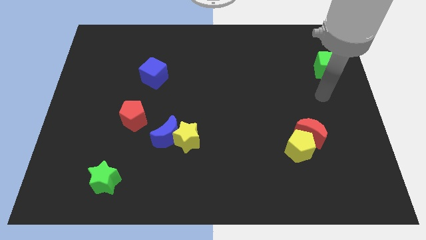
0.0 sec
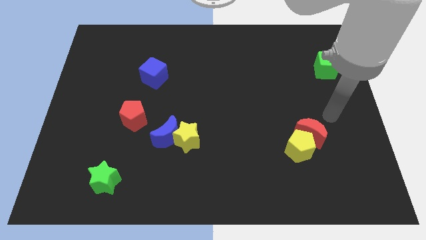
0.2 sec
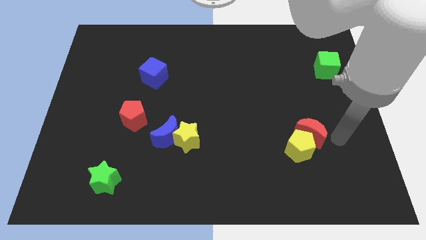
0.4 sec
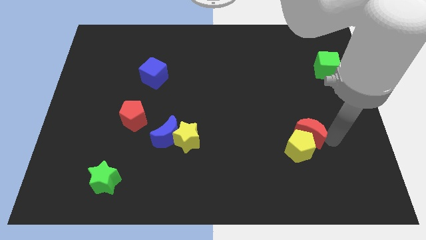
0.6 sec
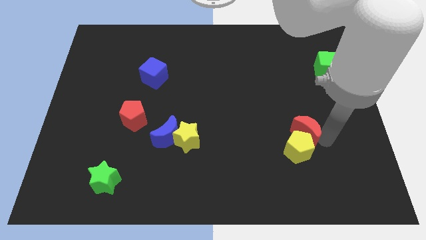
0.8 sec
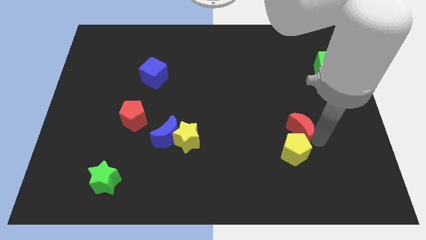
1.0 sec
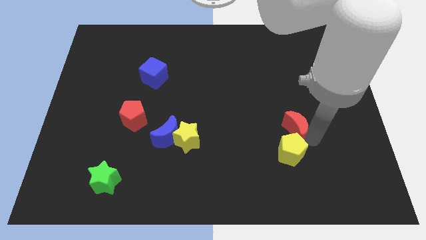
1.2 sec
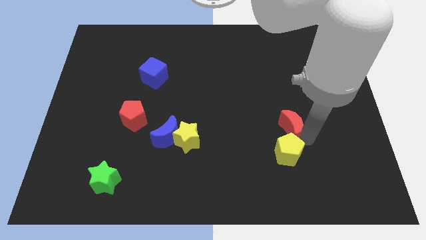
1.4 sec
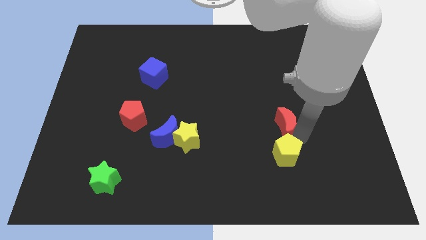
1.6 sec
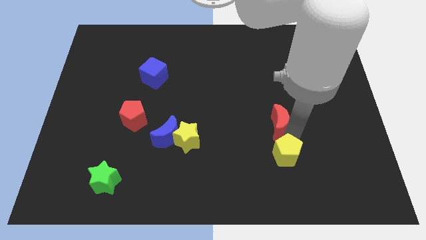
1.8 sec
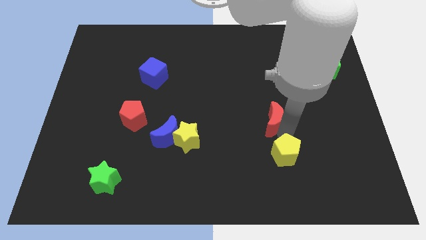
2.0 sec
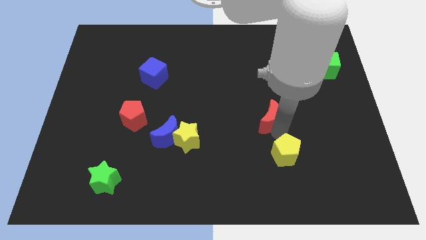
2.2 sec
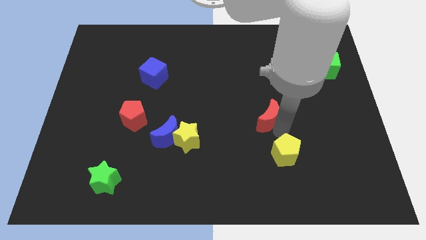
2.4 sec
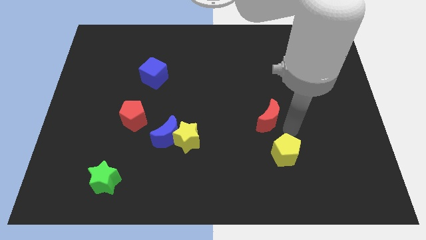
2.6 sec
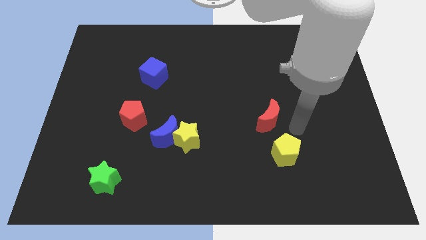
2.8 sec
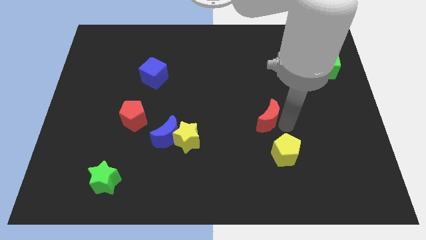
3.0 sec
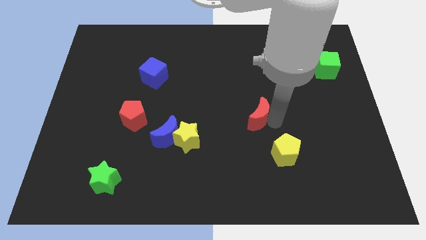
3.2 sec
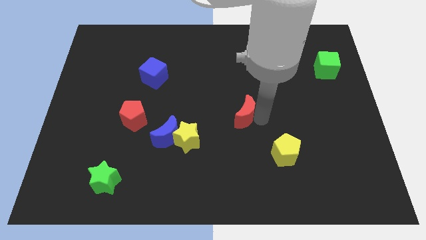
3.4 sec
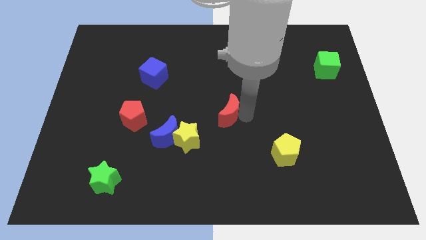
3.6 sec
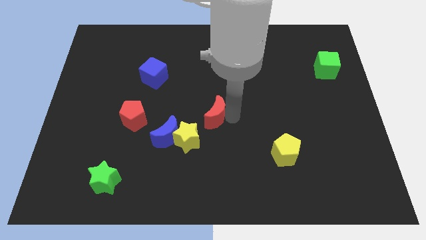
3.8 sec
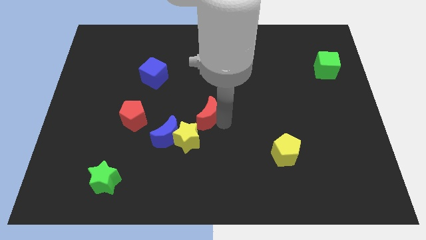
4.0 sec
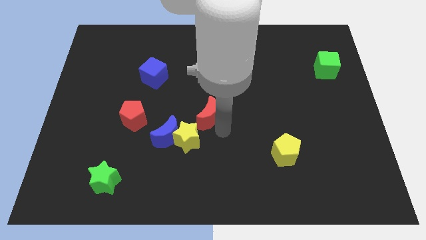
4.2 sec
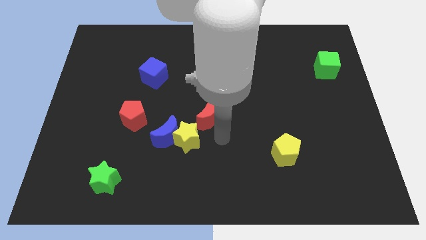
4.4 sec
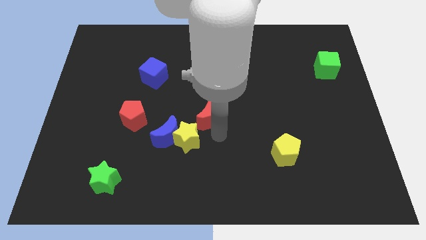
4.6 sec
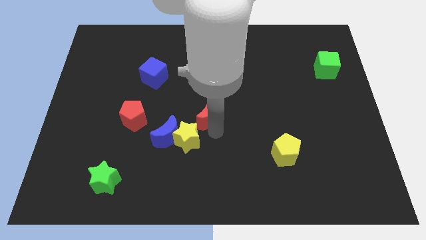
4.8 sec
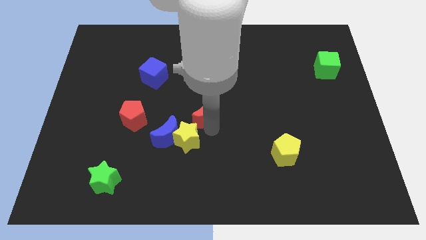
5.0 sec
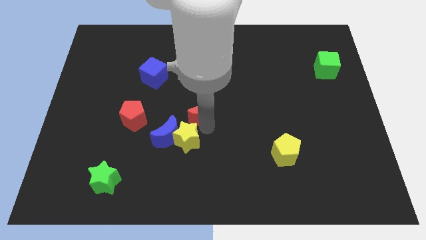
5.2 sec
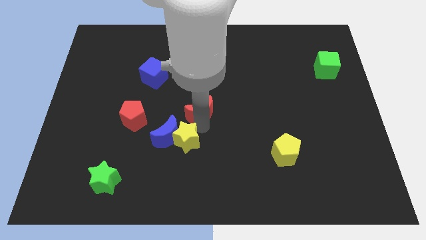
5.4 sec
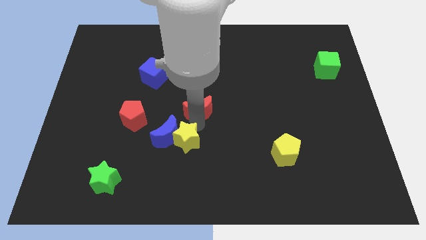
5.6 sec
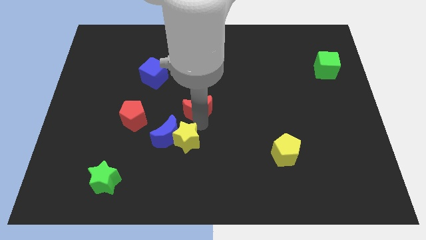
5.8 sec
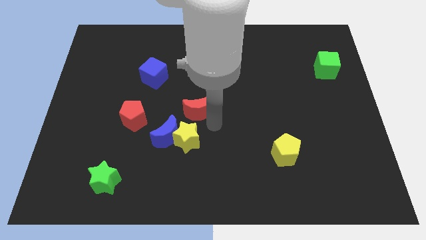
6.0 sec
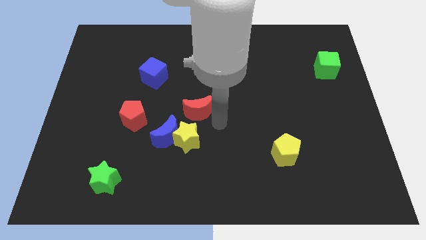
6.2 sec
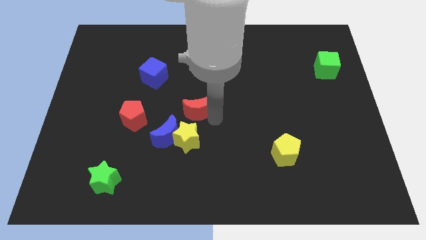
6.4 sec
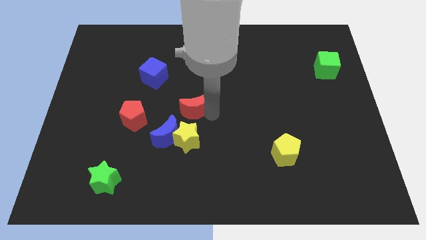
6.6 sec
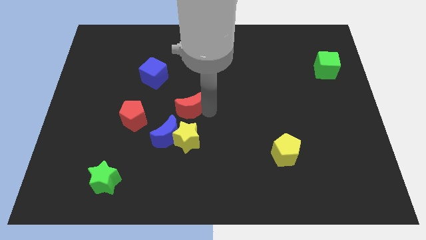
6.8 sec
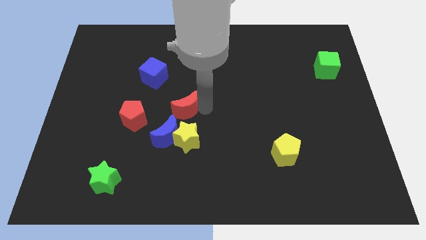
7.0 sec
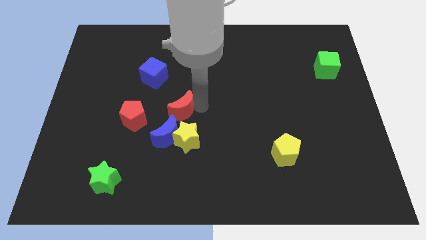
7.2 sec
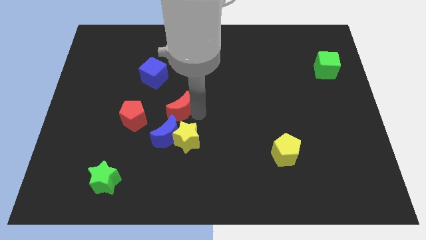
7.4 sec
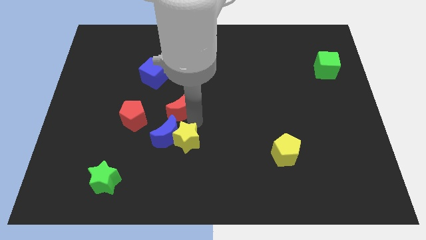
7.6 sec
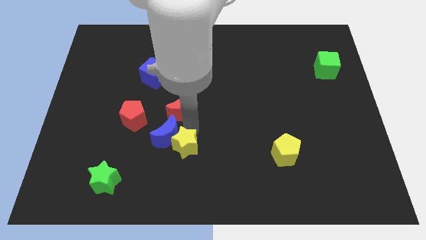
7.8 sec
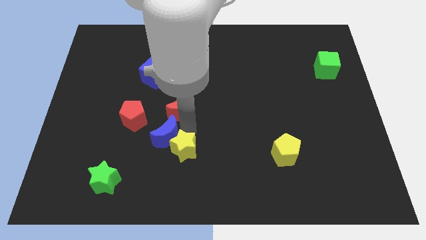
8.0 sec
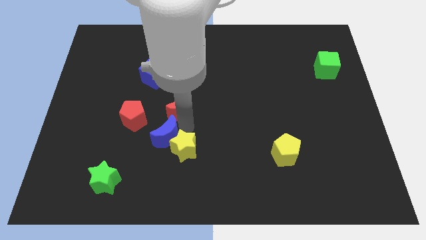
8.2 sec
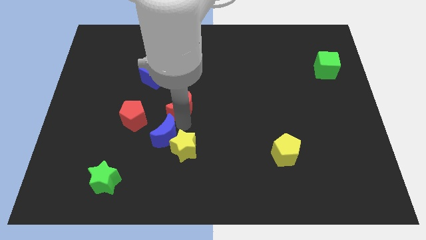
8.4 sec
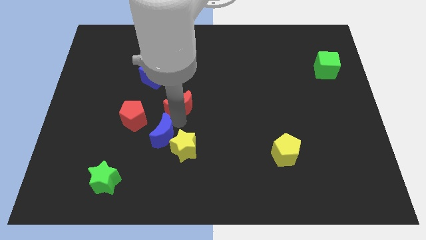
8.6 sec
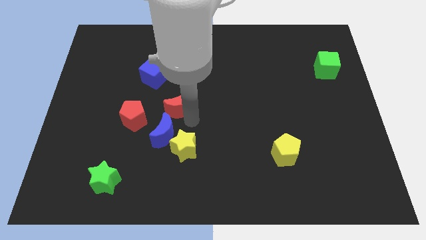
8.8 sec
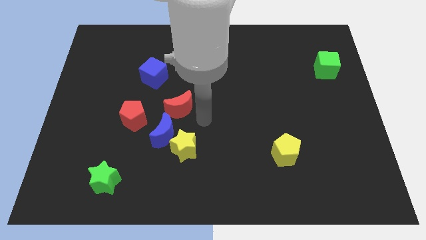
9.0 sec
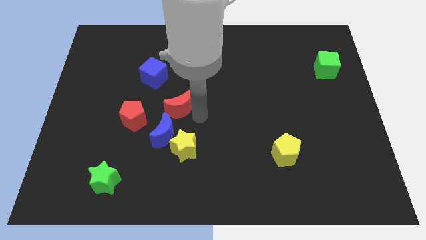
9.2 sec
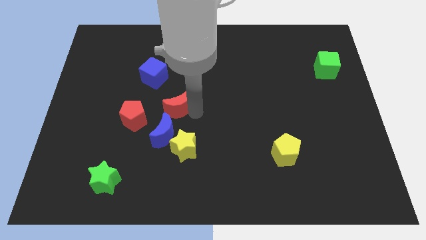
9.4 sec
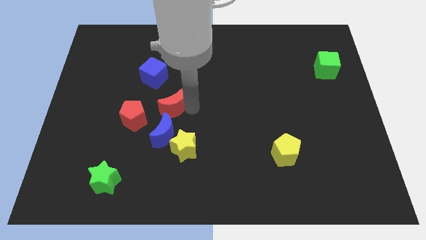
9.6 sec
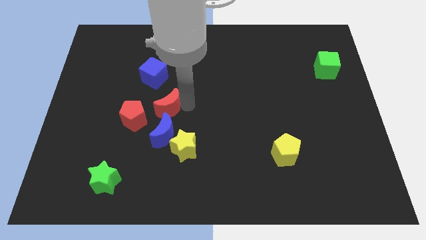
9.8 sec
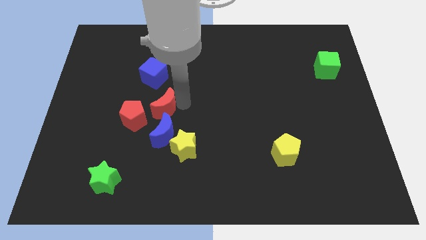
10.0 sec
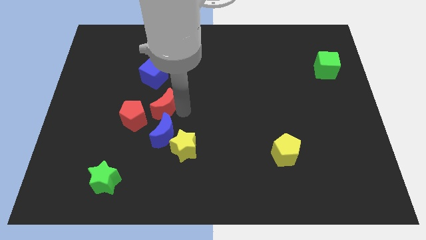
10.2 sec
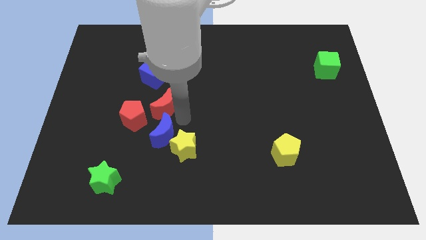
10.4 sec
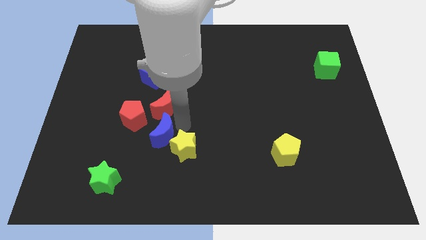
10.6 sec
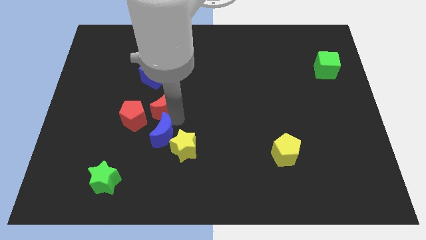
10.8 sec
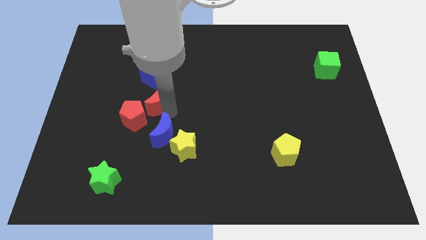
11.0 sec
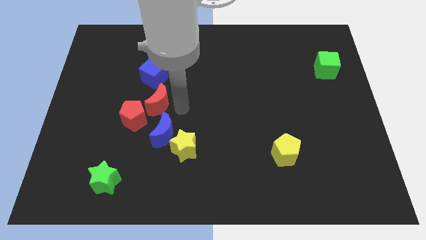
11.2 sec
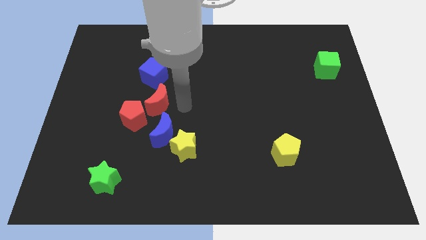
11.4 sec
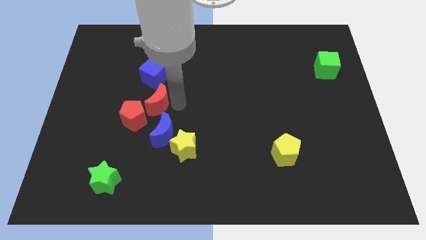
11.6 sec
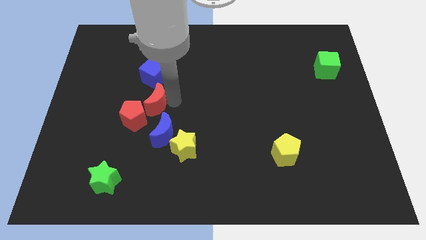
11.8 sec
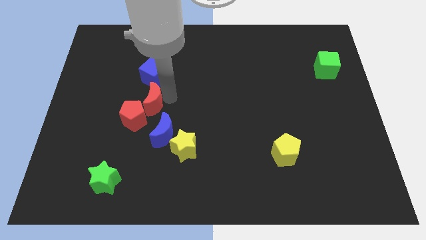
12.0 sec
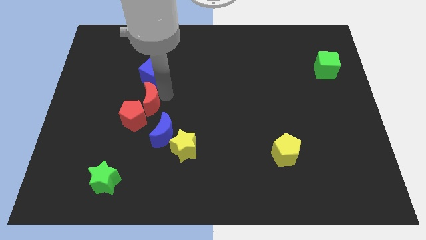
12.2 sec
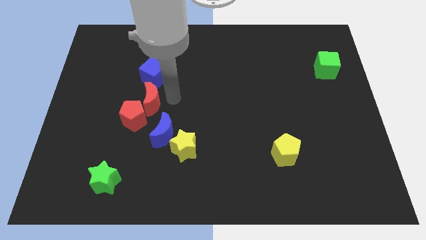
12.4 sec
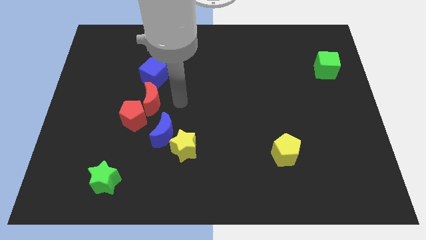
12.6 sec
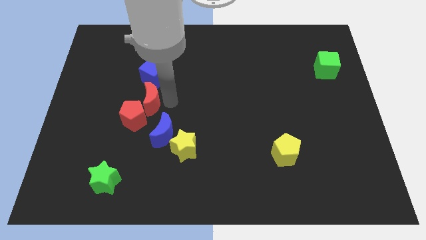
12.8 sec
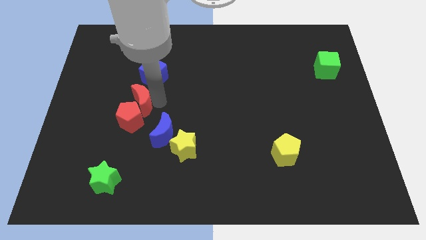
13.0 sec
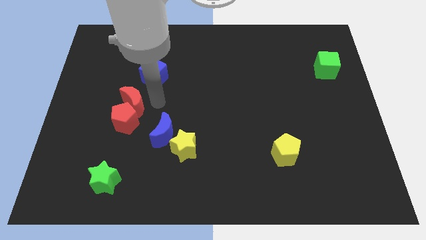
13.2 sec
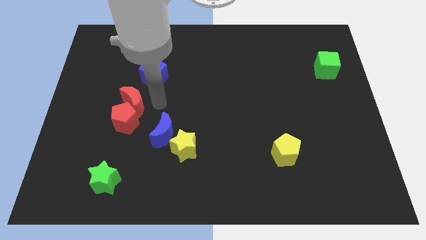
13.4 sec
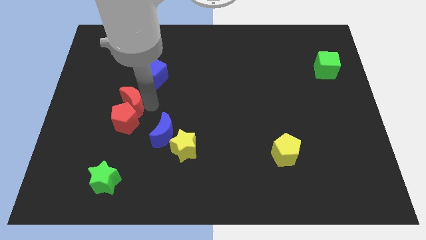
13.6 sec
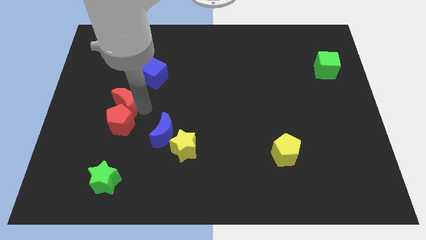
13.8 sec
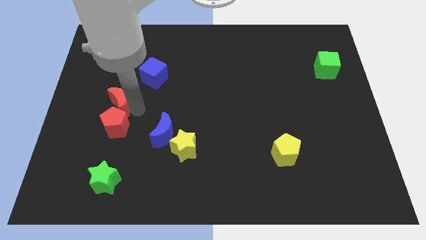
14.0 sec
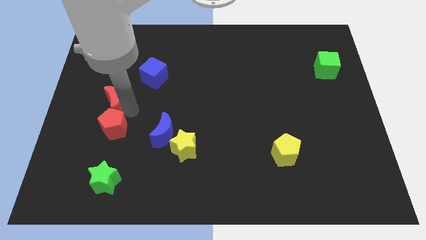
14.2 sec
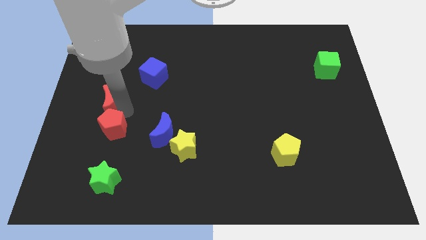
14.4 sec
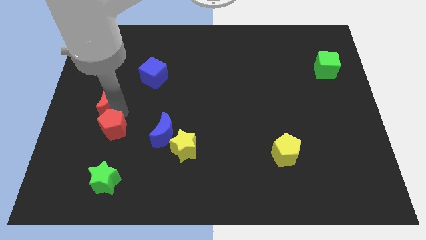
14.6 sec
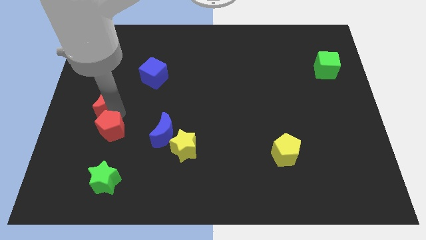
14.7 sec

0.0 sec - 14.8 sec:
push the red moon to the left side
